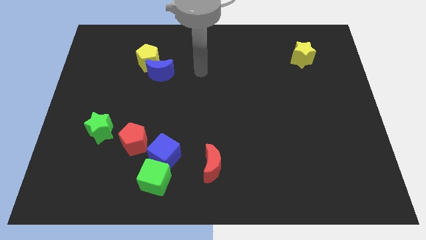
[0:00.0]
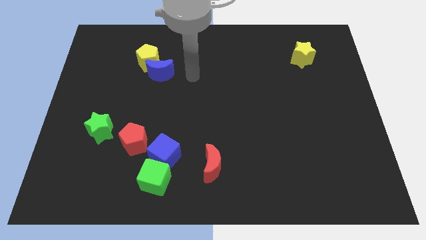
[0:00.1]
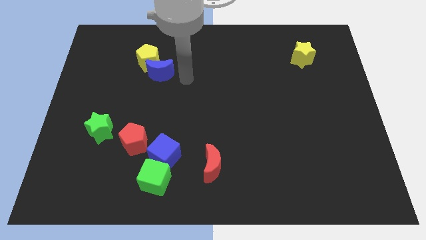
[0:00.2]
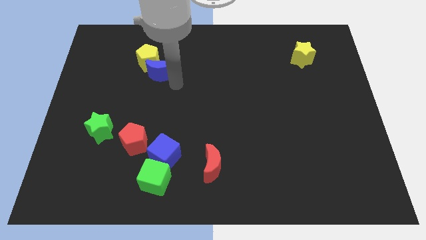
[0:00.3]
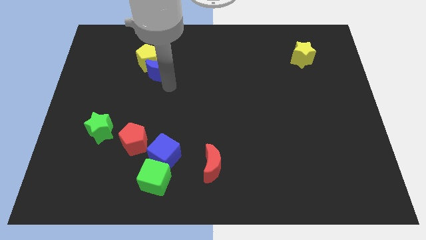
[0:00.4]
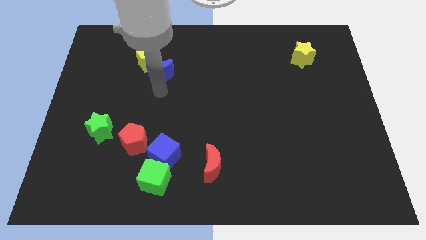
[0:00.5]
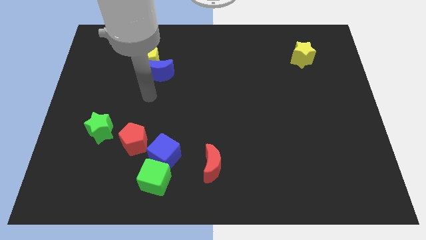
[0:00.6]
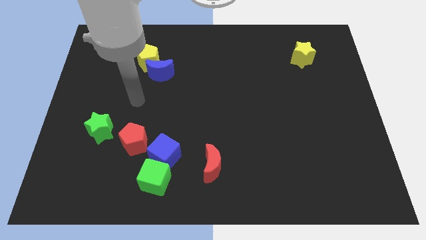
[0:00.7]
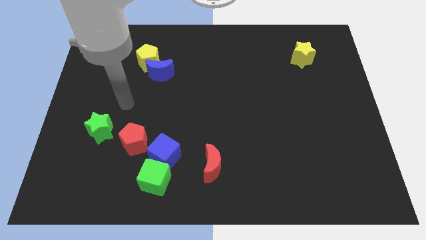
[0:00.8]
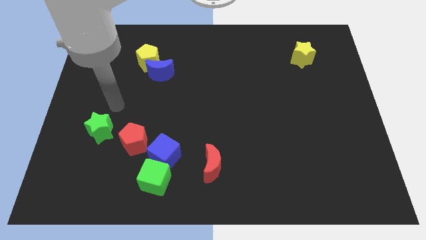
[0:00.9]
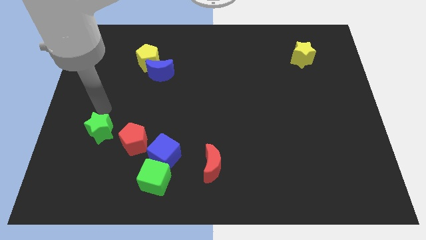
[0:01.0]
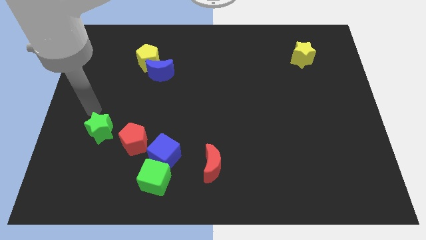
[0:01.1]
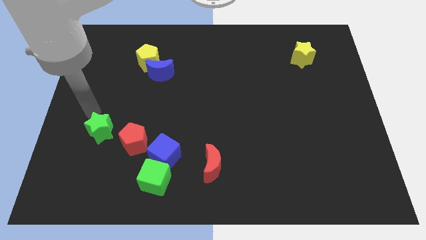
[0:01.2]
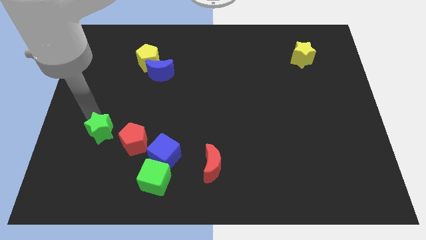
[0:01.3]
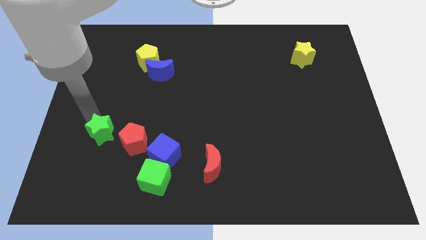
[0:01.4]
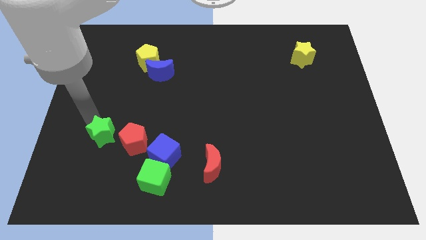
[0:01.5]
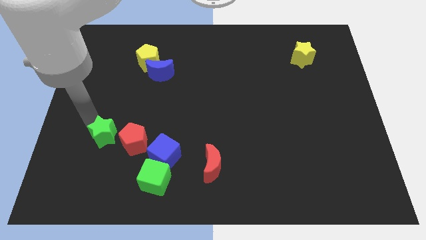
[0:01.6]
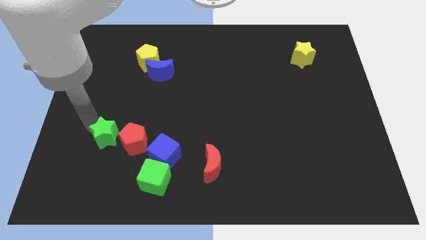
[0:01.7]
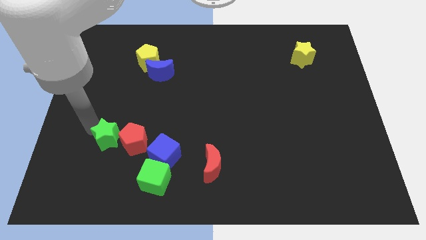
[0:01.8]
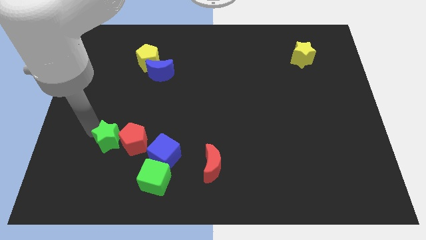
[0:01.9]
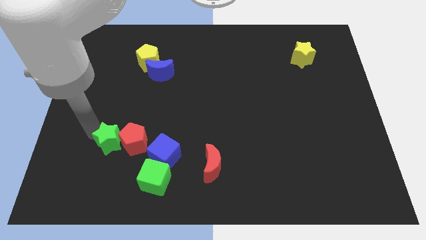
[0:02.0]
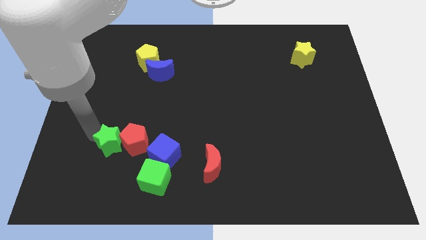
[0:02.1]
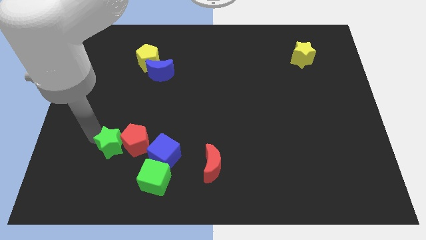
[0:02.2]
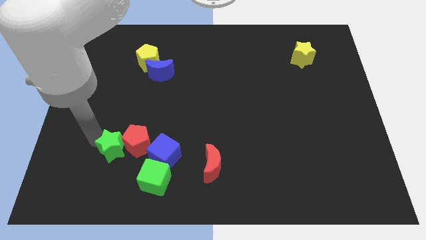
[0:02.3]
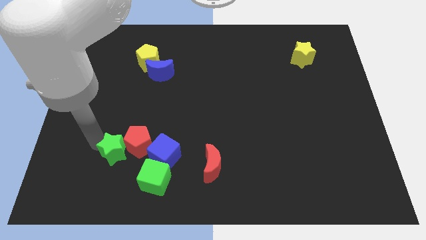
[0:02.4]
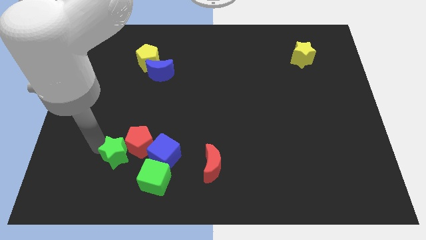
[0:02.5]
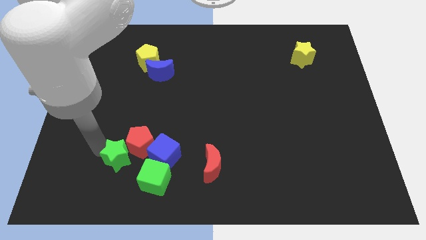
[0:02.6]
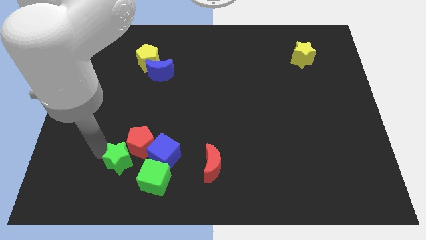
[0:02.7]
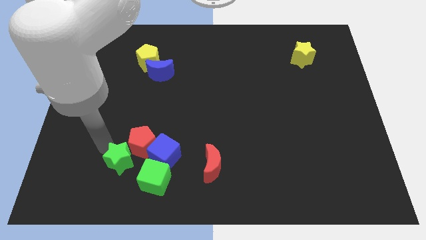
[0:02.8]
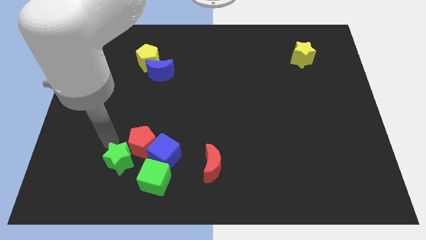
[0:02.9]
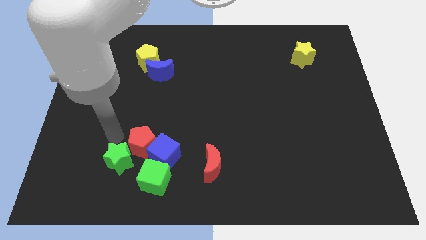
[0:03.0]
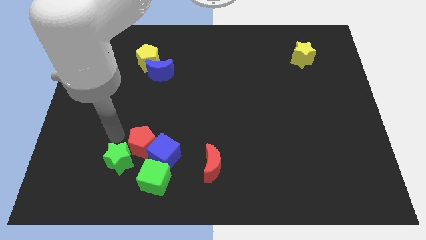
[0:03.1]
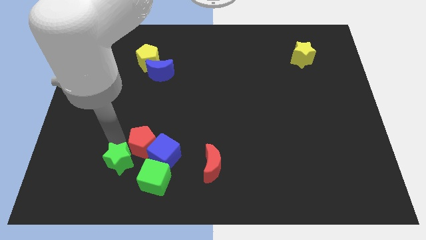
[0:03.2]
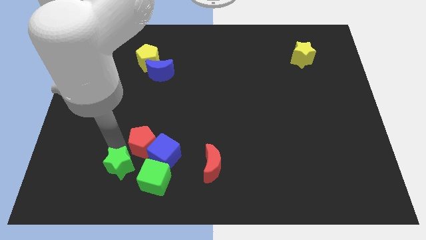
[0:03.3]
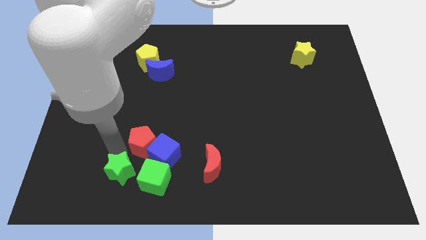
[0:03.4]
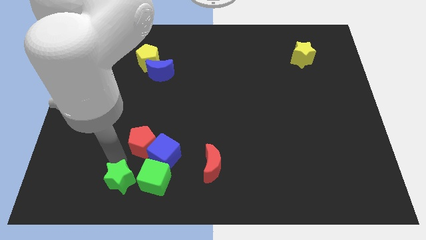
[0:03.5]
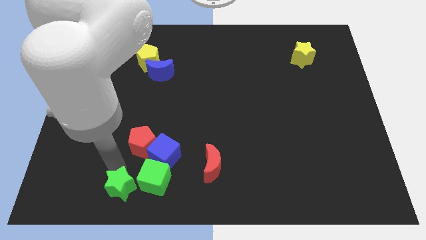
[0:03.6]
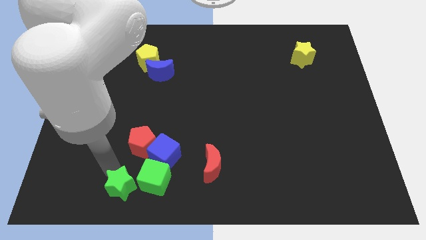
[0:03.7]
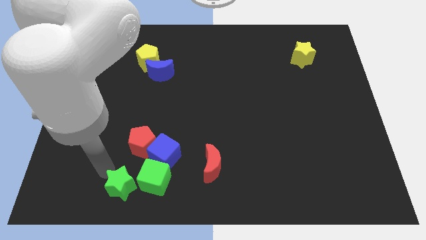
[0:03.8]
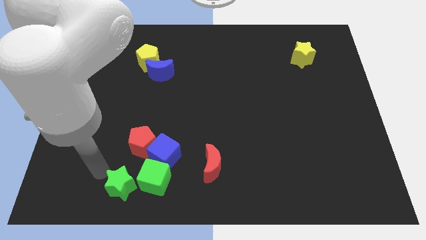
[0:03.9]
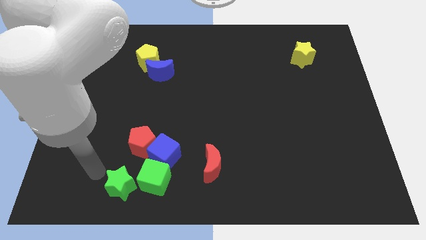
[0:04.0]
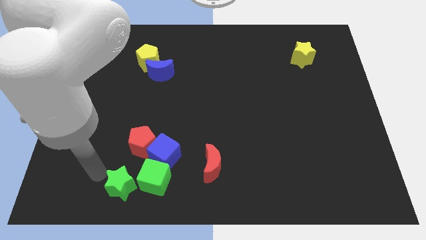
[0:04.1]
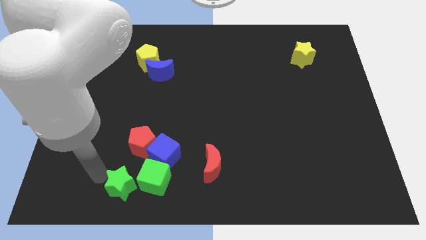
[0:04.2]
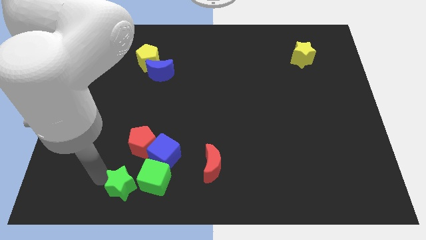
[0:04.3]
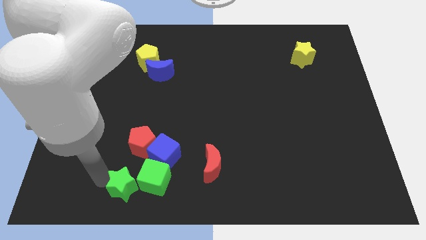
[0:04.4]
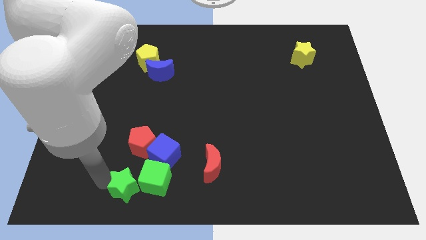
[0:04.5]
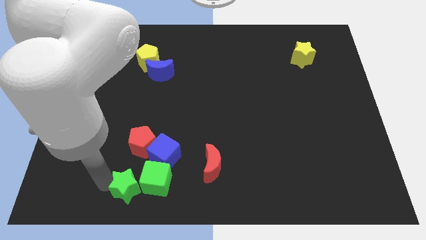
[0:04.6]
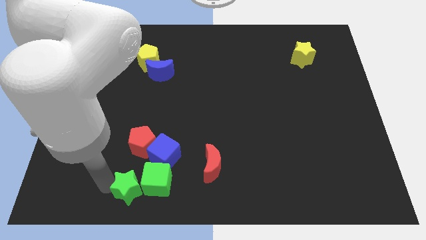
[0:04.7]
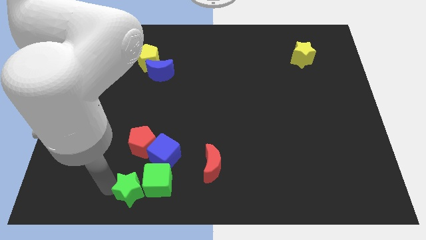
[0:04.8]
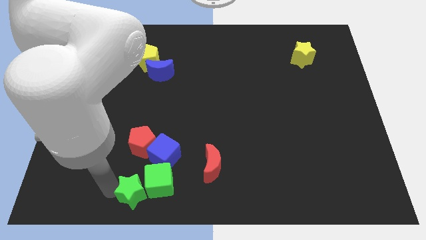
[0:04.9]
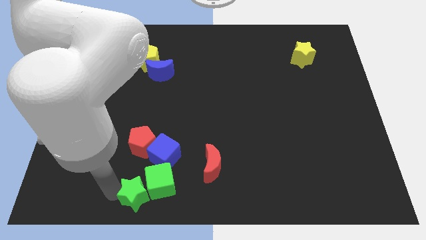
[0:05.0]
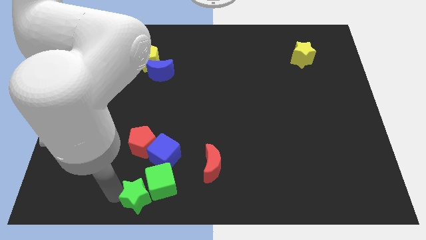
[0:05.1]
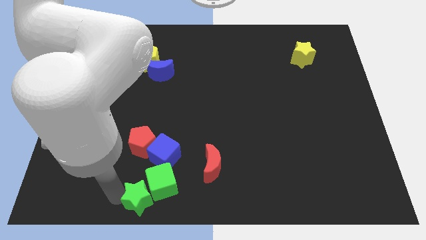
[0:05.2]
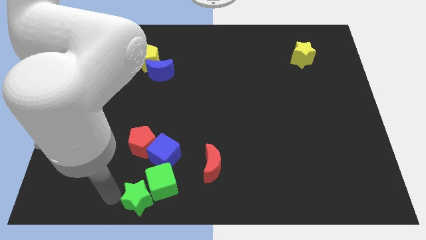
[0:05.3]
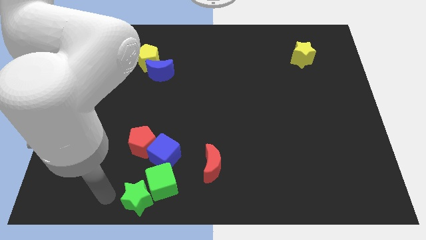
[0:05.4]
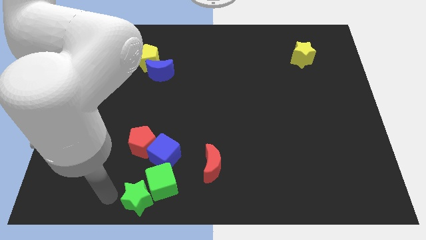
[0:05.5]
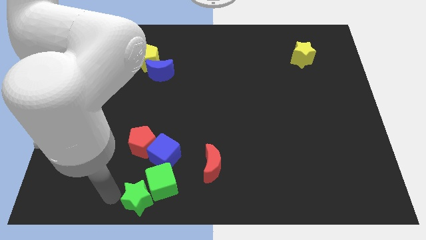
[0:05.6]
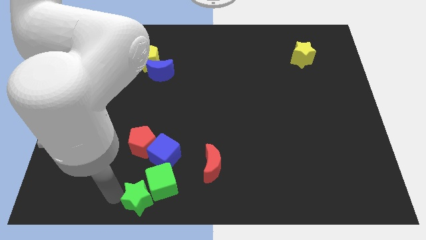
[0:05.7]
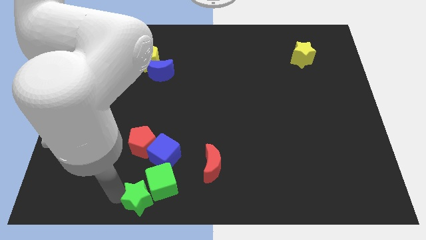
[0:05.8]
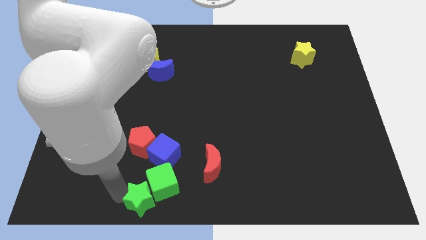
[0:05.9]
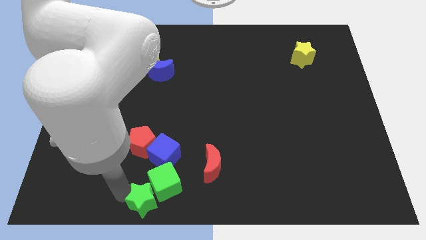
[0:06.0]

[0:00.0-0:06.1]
move the green star to the bottom side
